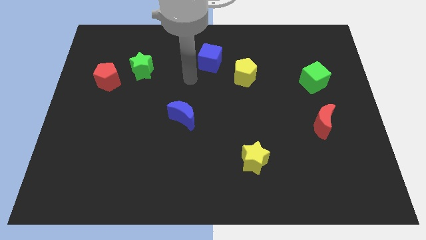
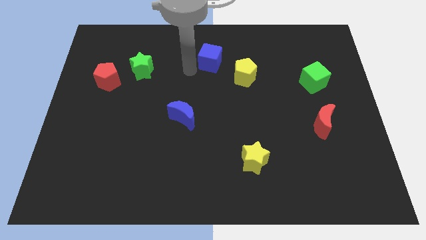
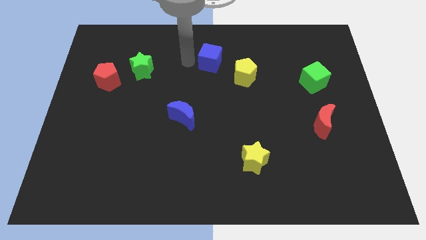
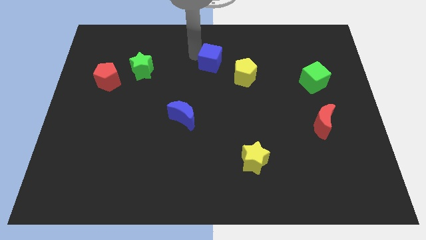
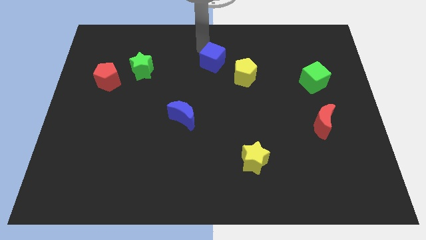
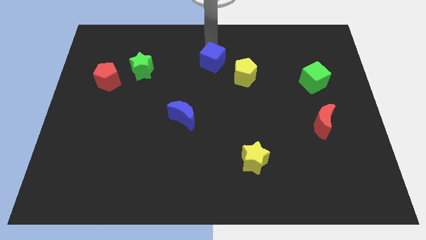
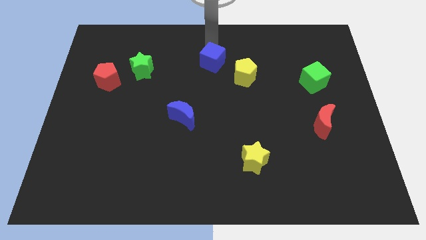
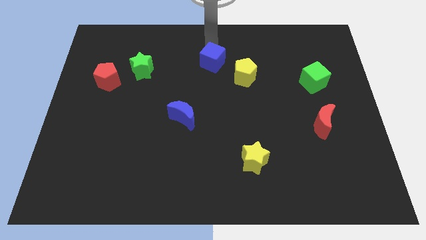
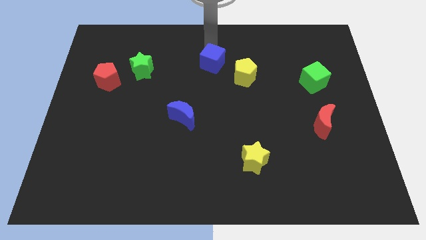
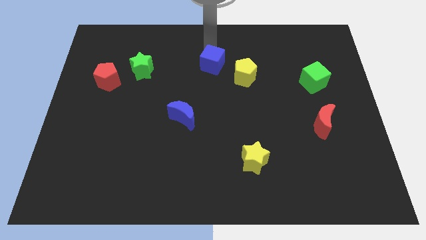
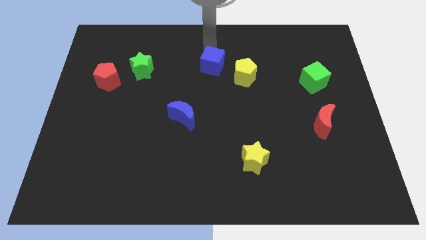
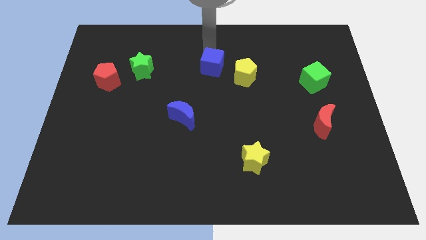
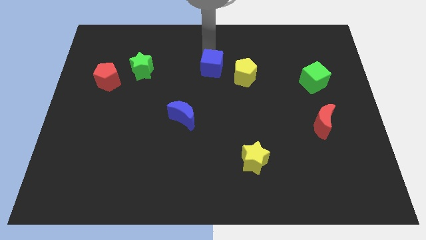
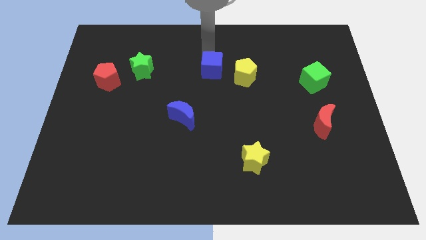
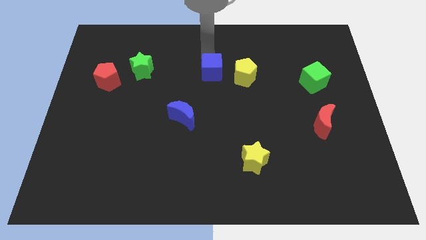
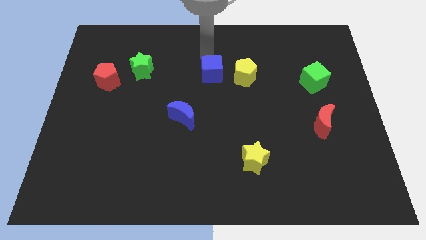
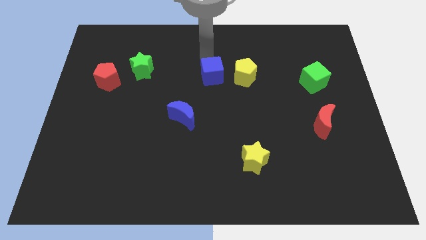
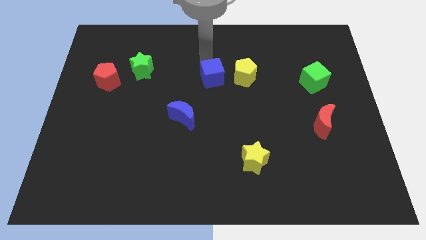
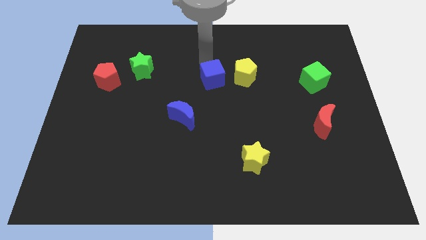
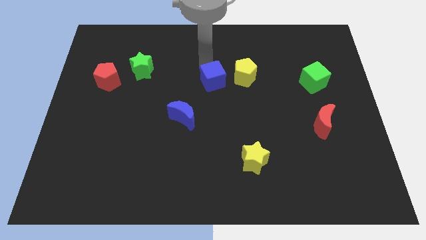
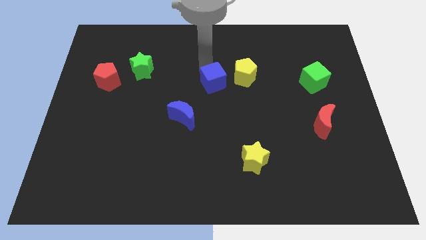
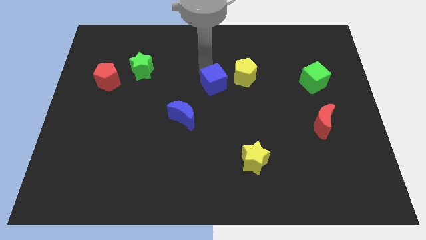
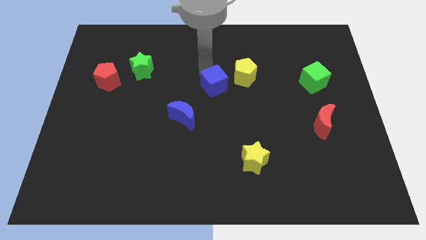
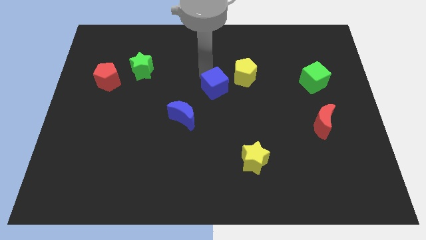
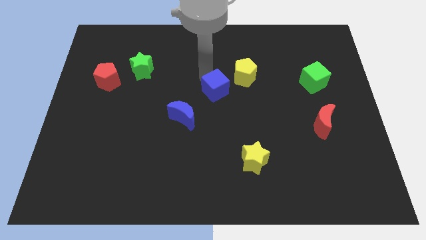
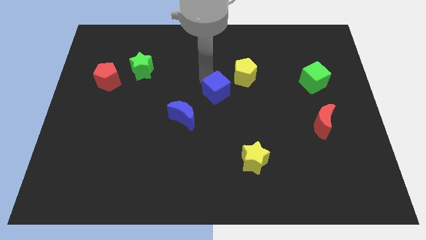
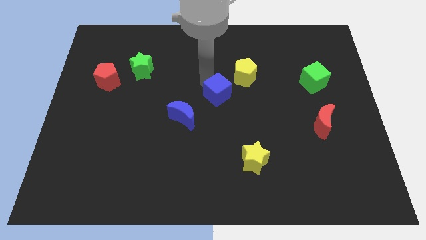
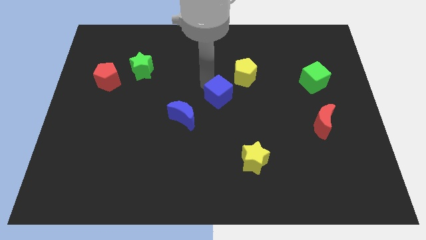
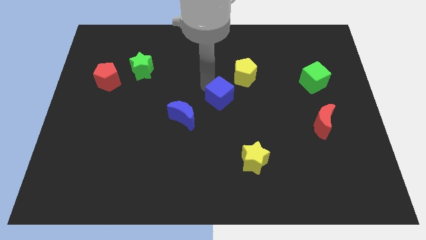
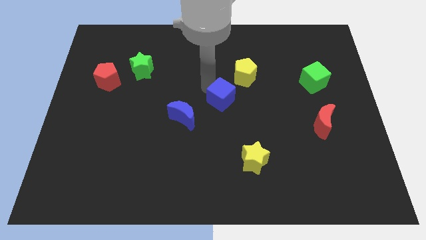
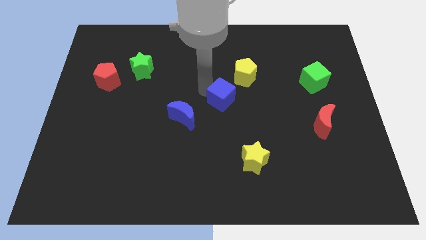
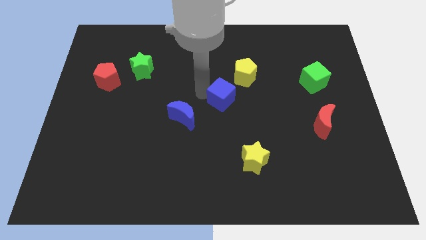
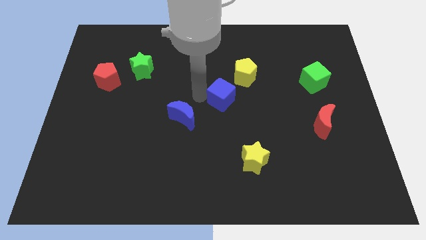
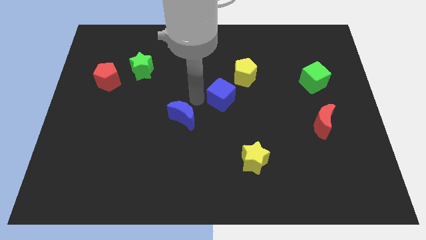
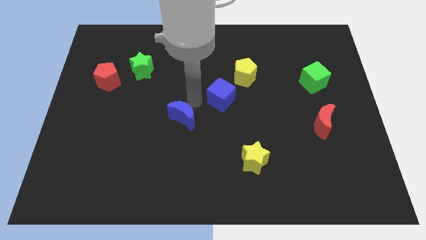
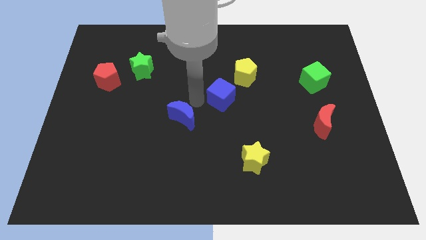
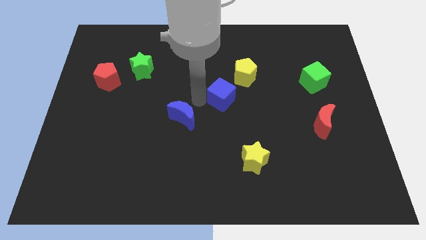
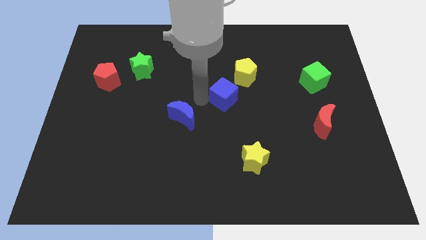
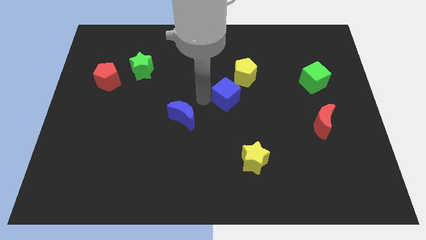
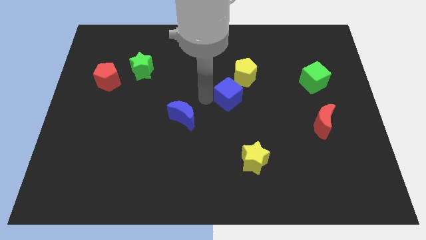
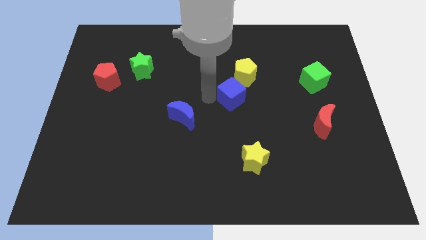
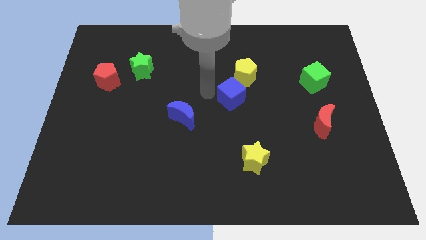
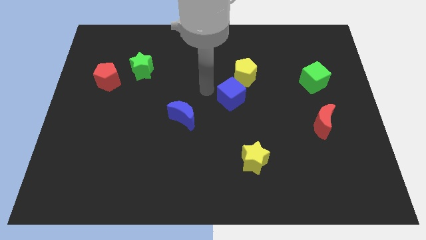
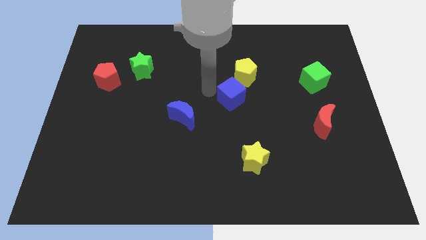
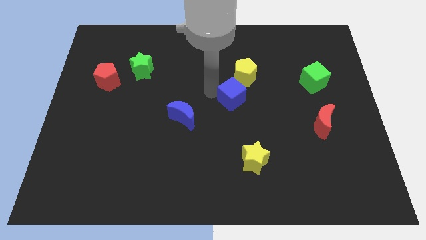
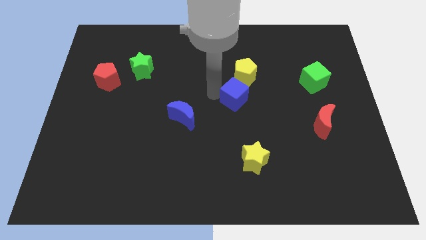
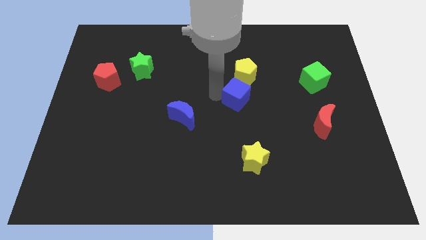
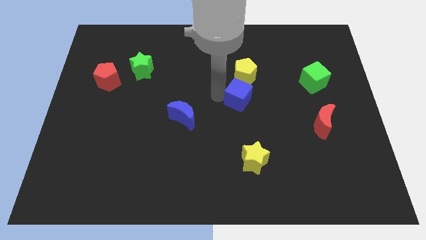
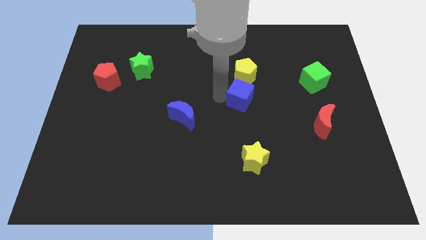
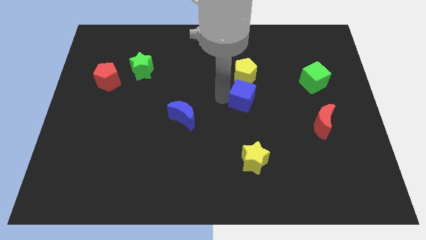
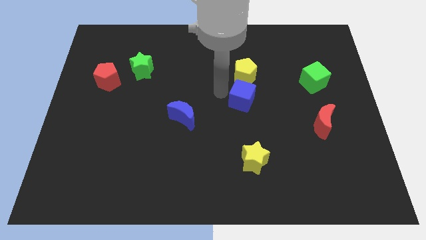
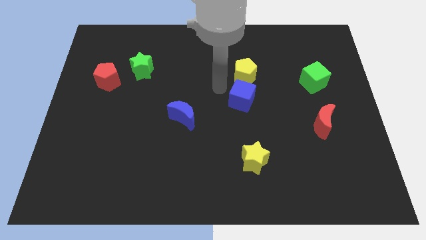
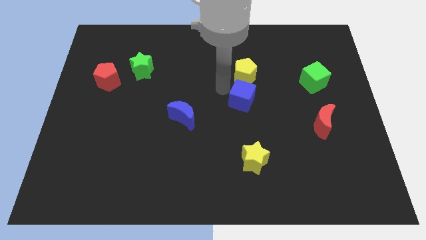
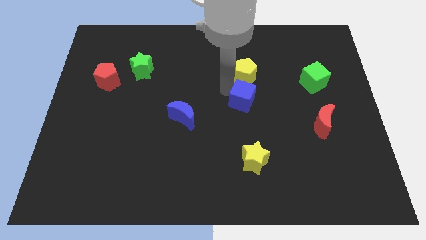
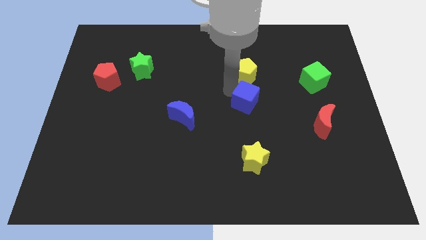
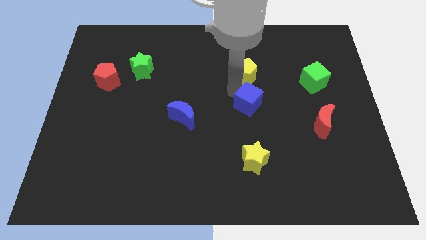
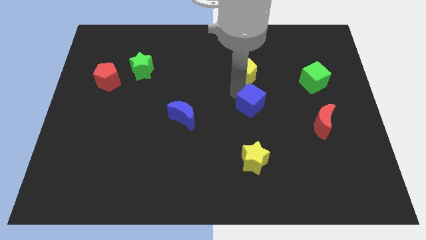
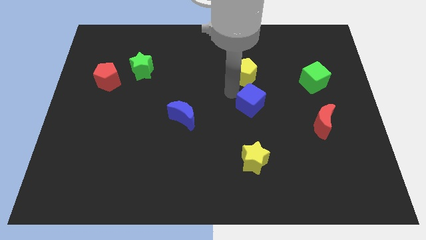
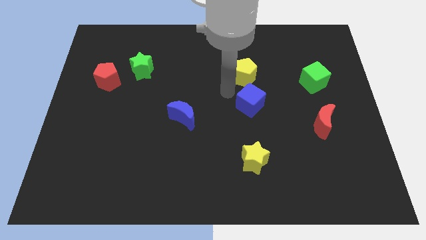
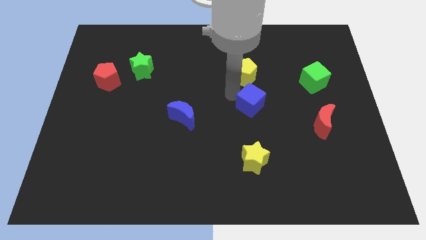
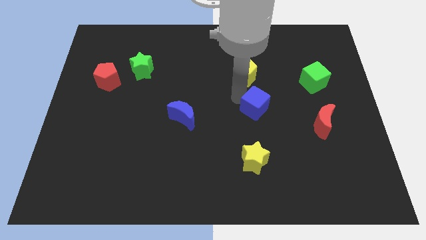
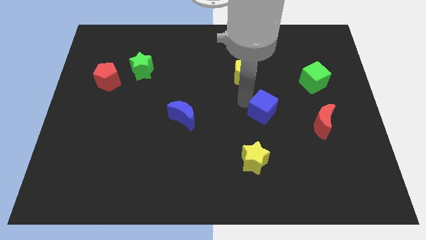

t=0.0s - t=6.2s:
move the blue cube downwards and then to the right

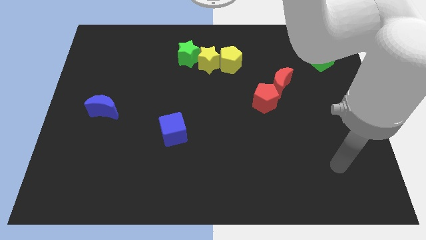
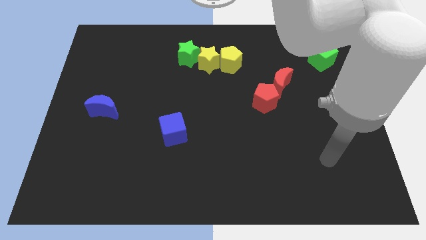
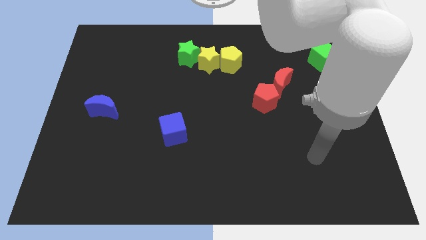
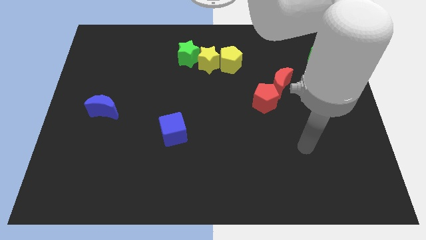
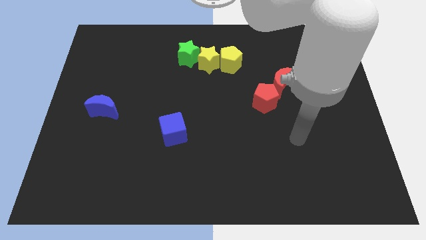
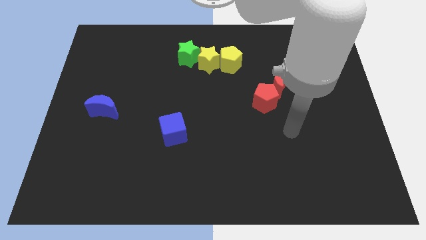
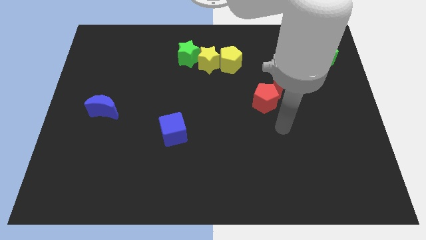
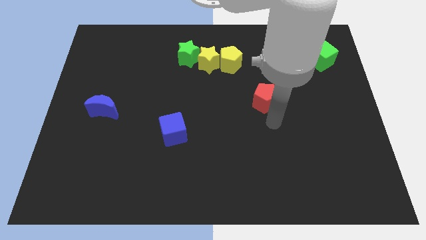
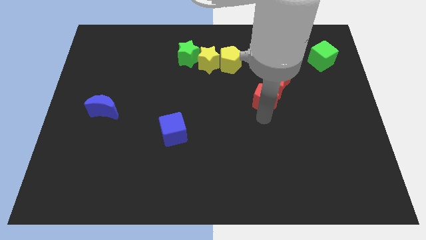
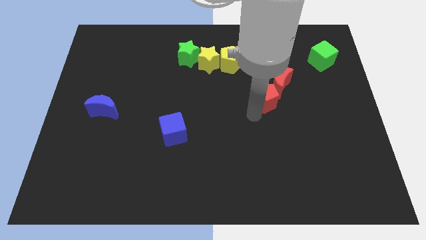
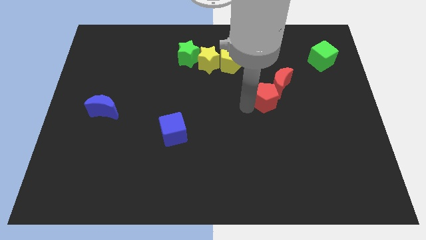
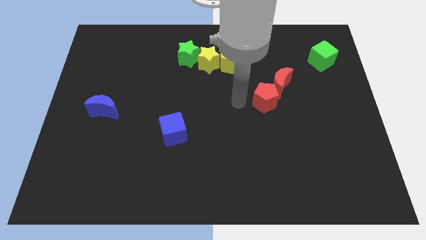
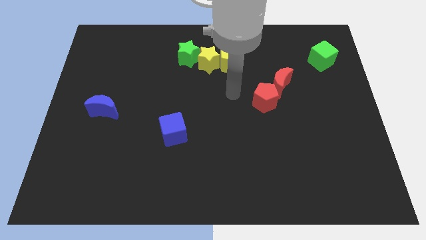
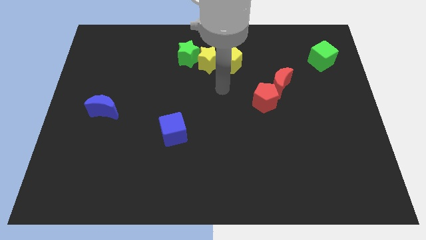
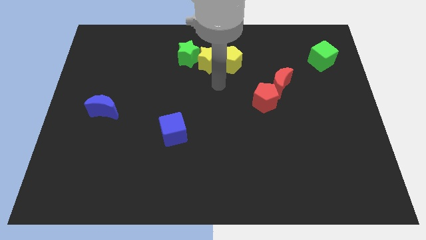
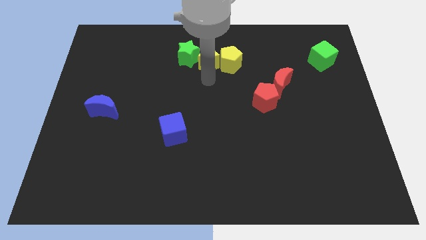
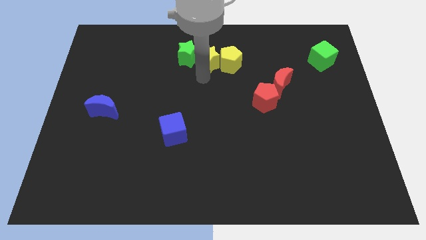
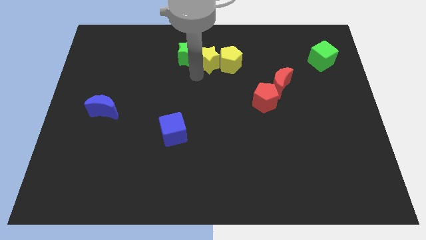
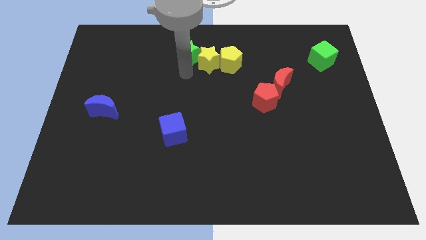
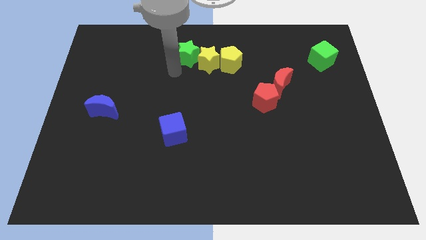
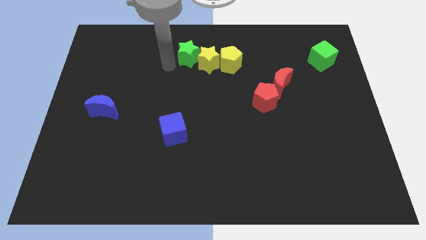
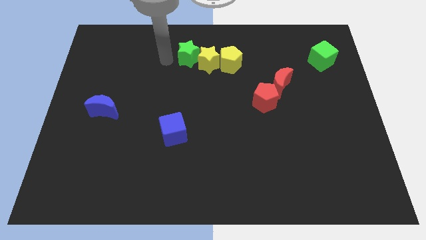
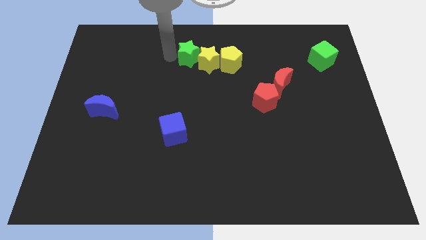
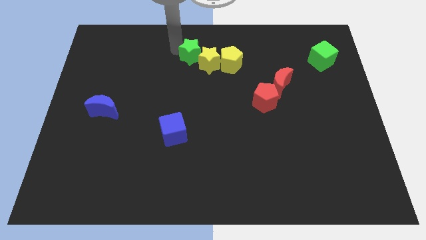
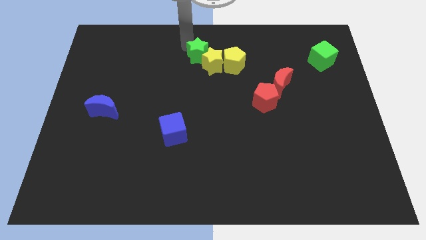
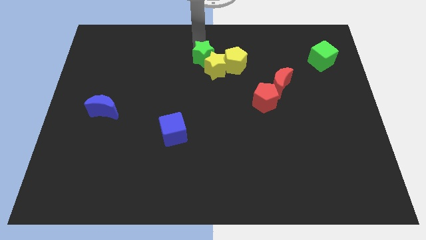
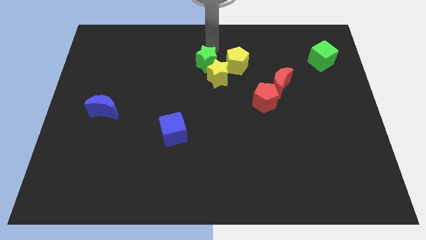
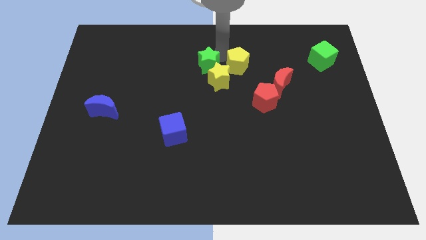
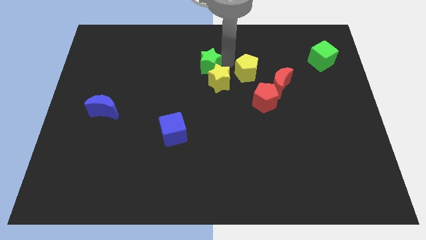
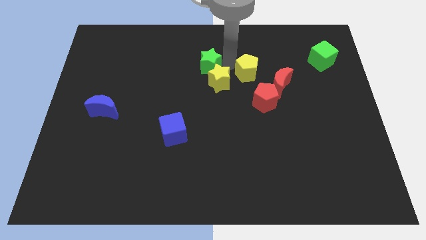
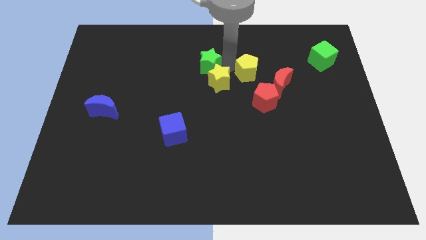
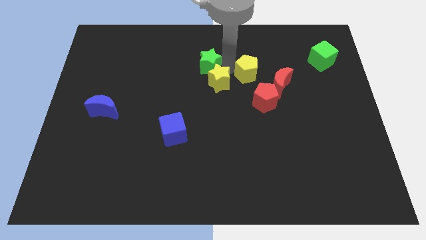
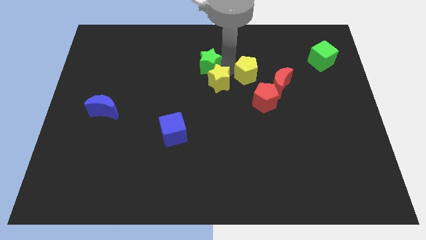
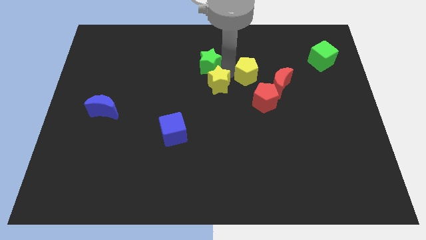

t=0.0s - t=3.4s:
push the yellow star a little bit down
